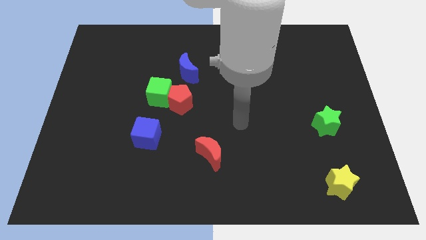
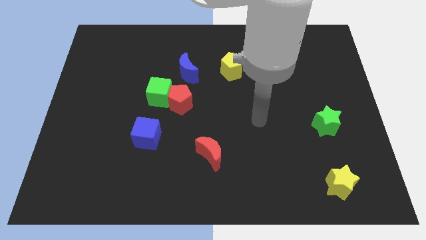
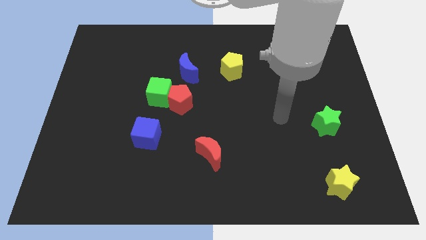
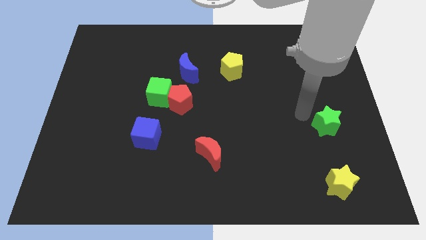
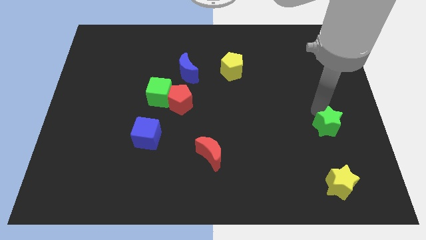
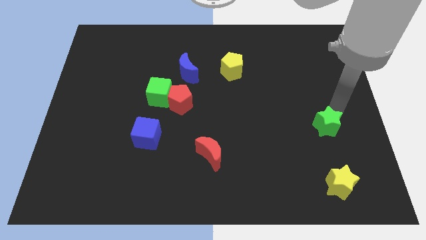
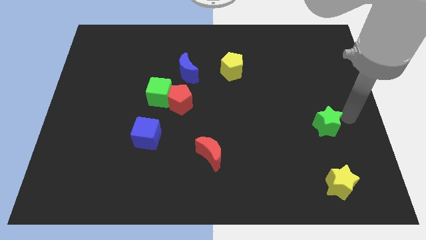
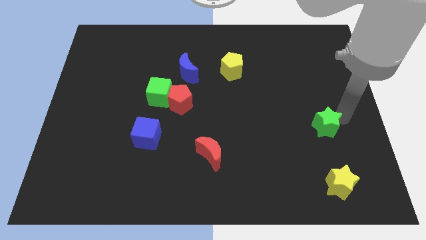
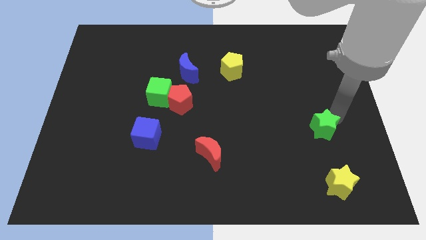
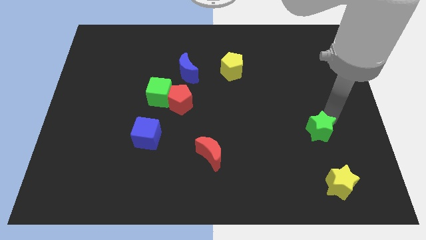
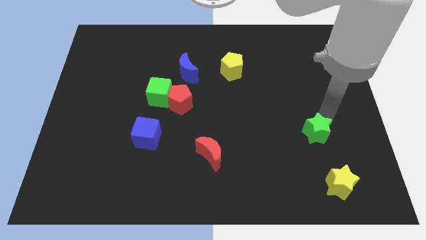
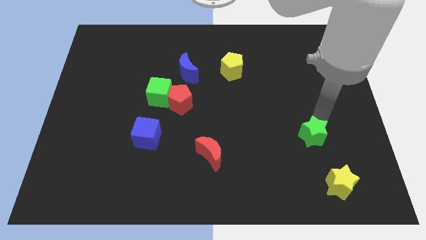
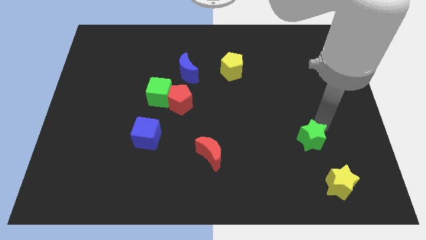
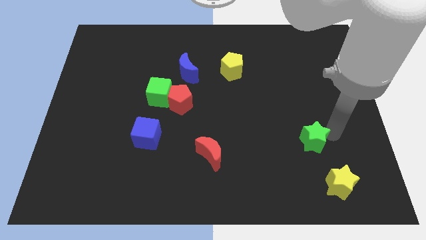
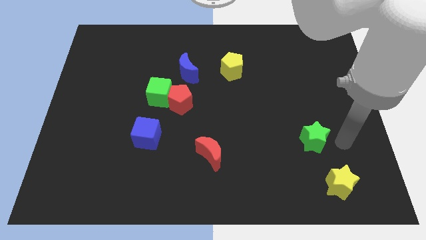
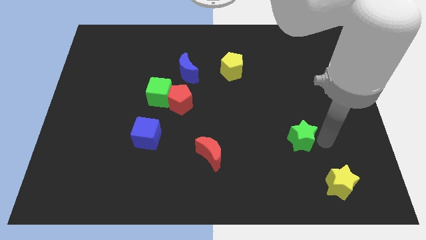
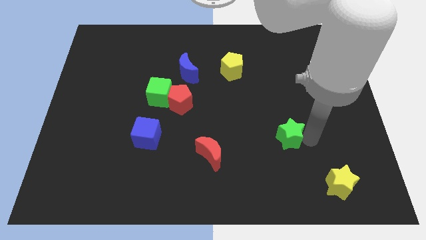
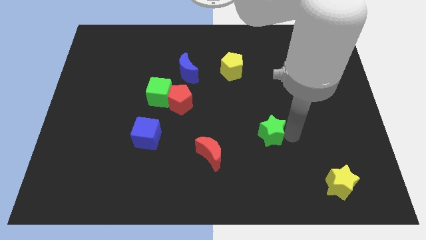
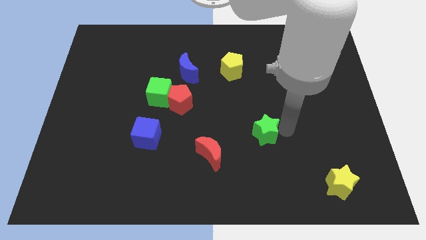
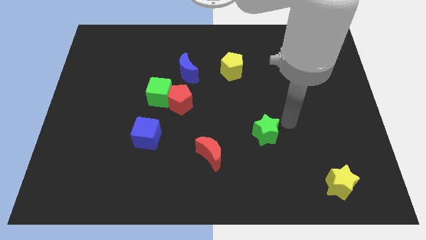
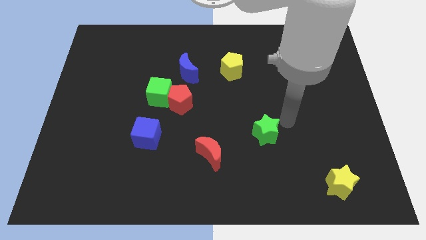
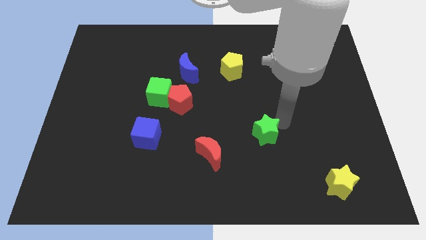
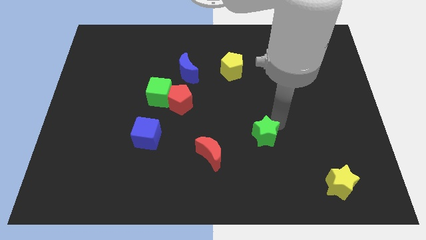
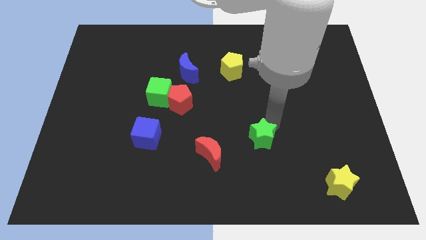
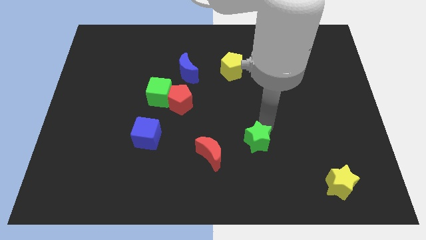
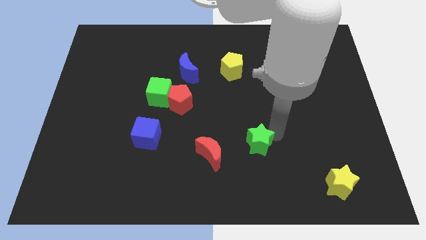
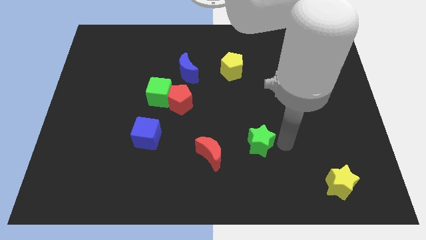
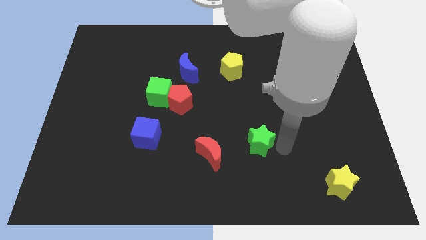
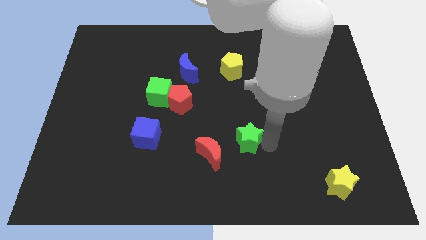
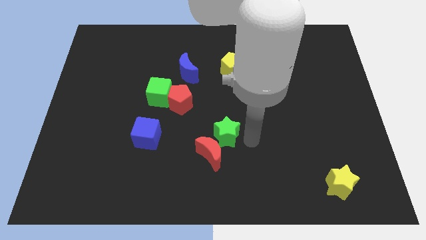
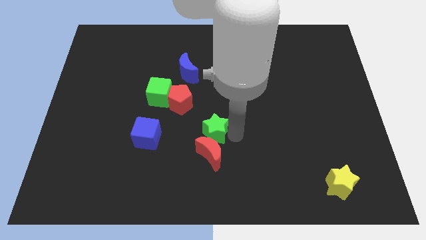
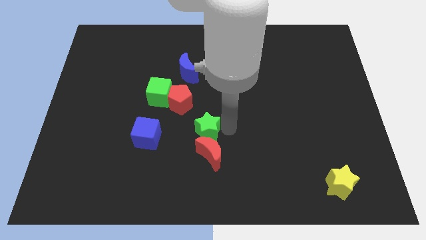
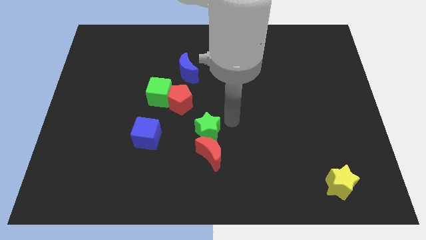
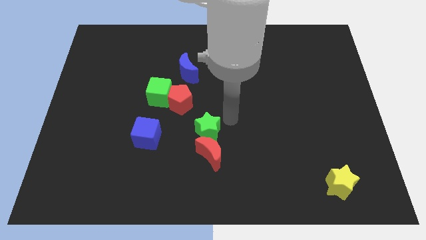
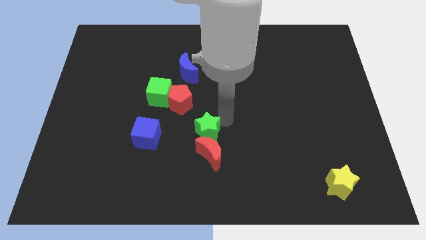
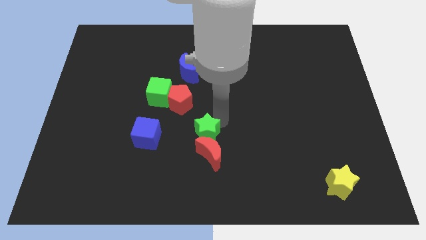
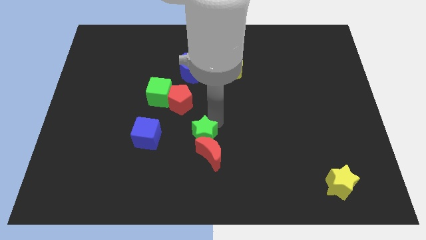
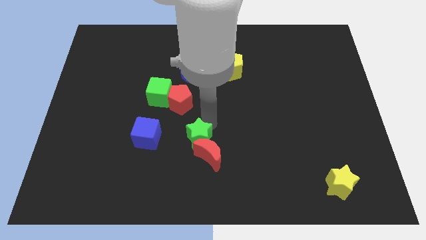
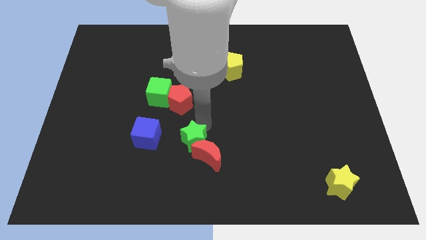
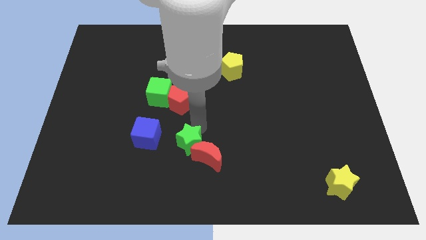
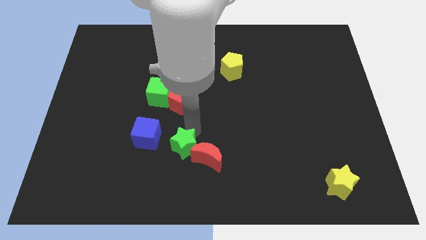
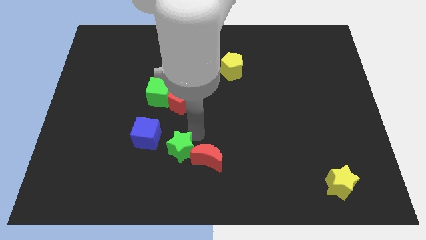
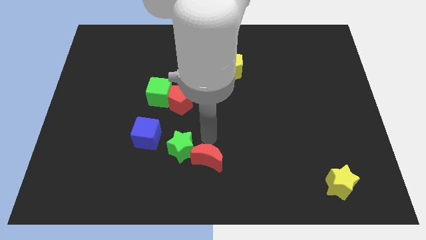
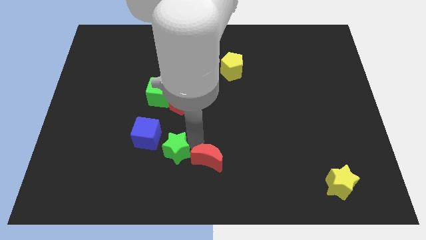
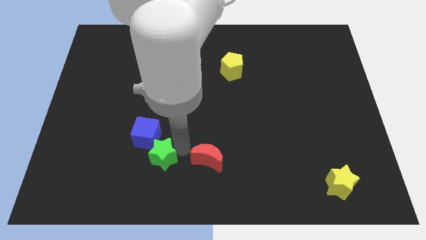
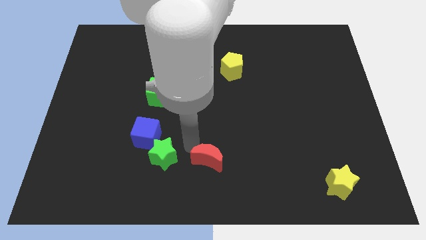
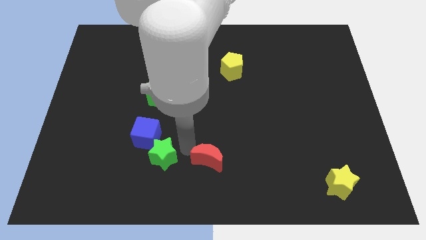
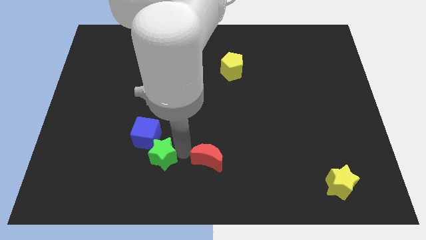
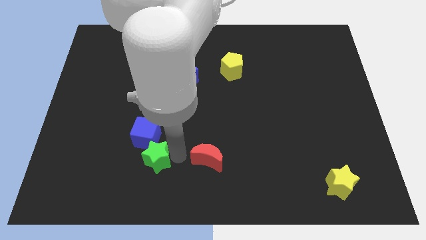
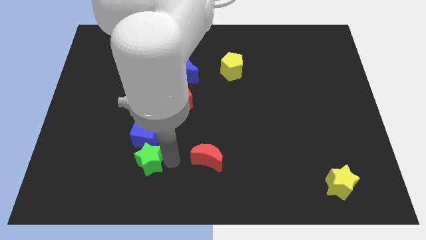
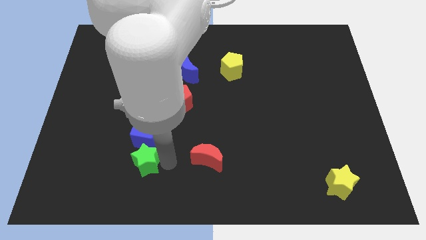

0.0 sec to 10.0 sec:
put the green star to the bottom left of the blue cube

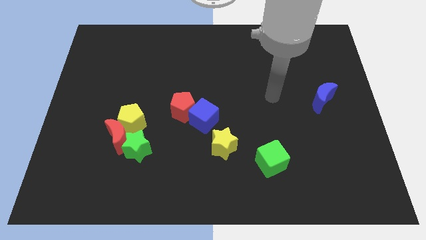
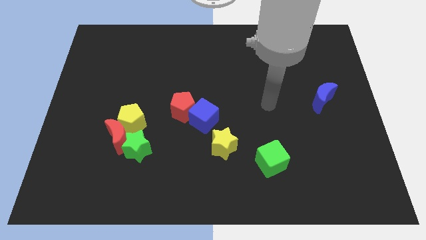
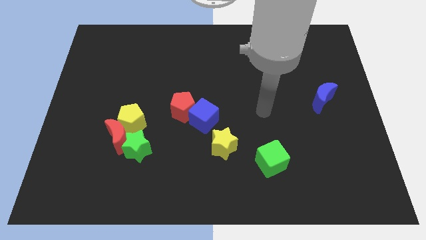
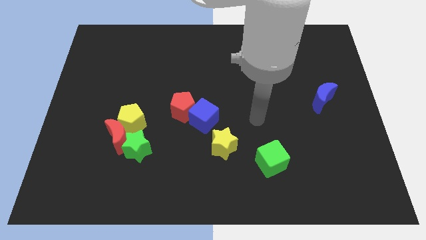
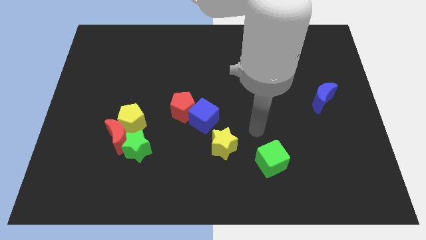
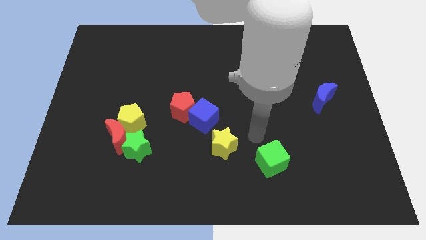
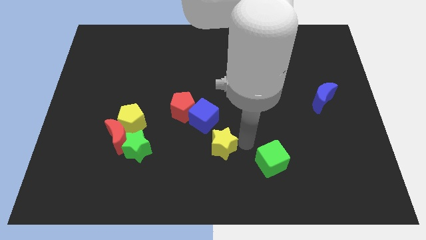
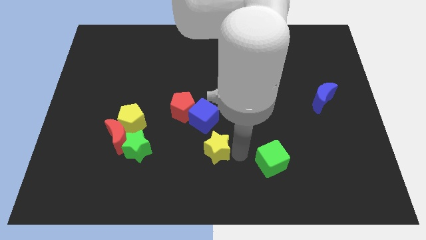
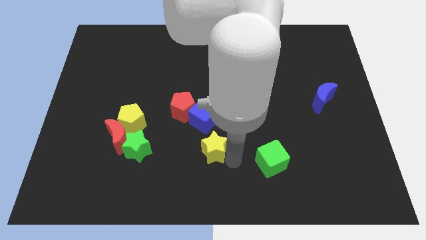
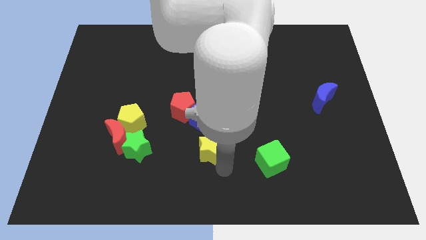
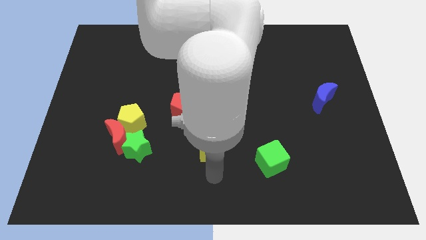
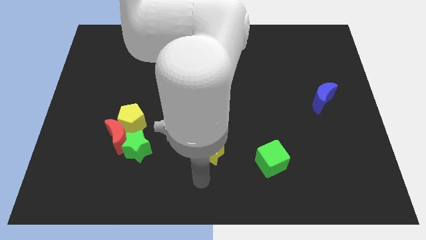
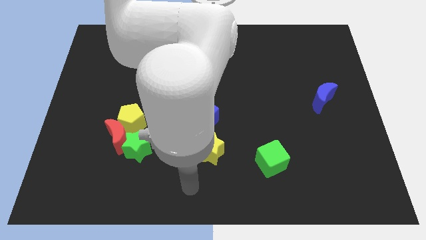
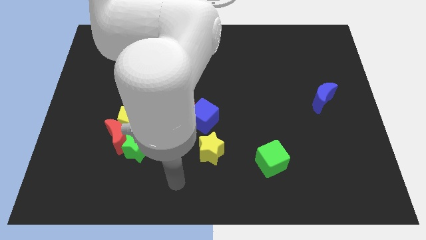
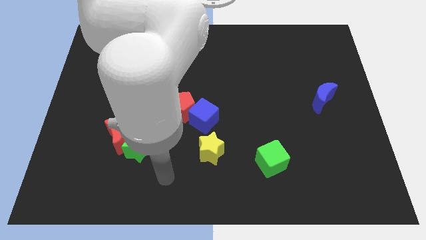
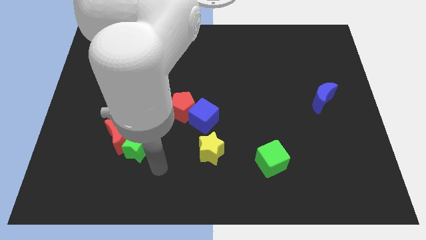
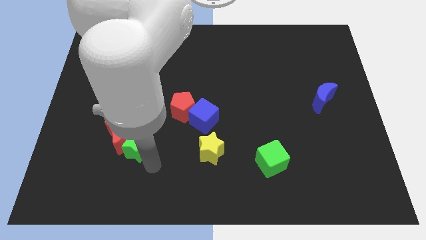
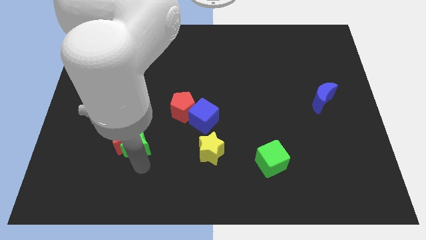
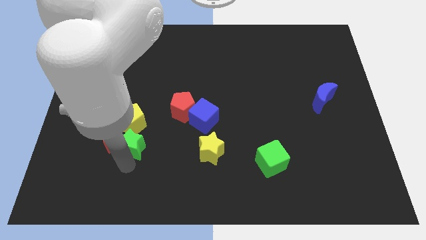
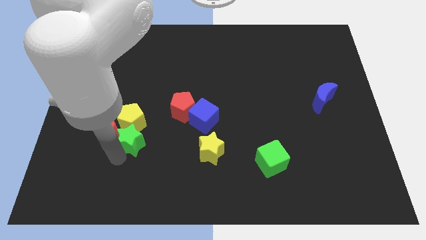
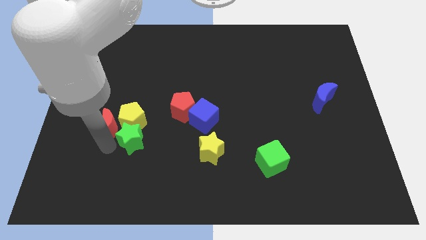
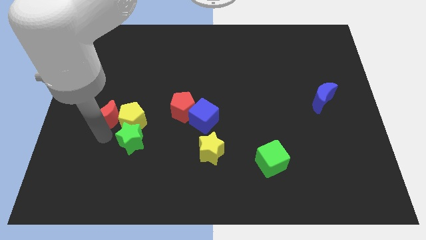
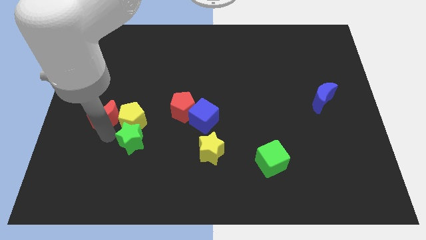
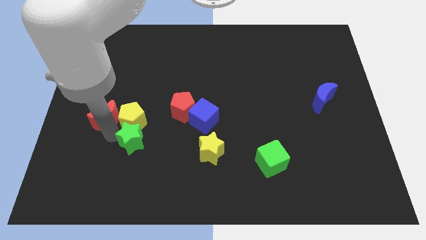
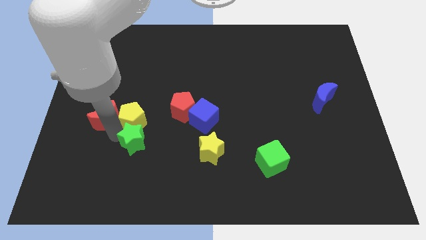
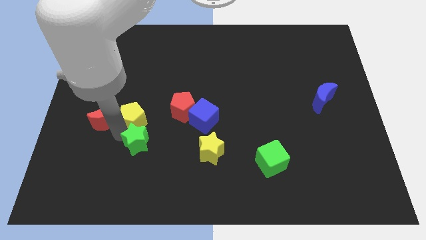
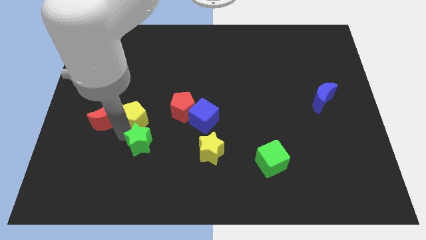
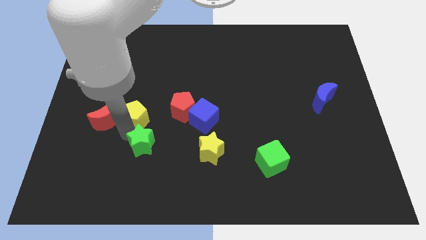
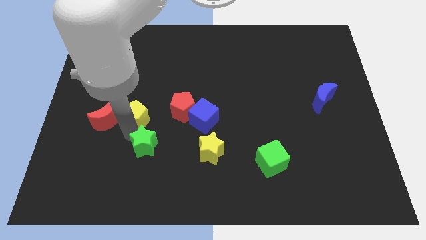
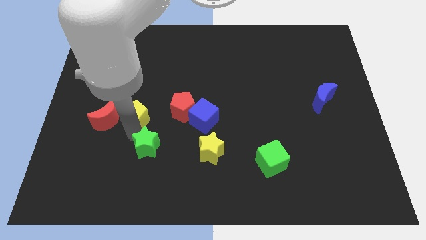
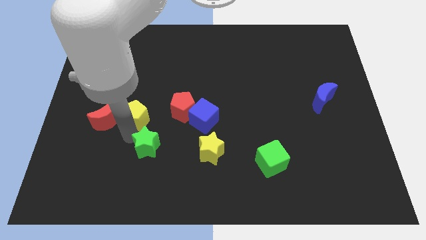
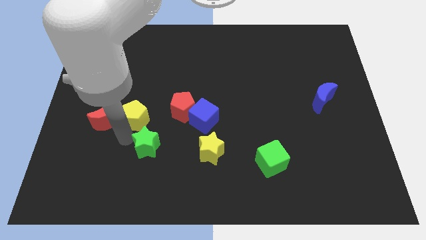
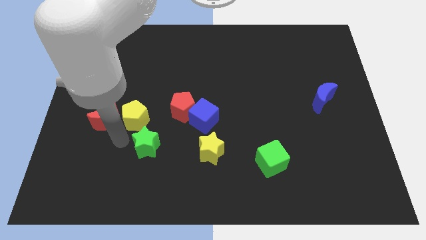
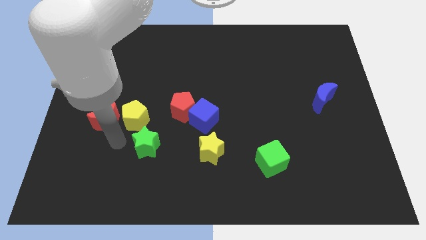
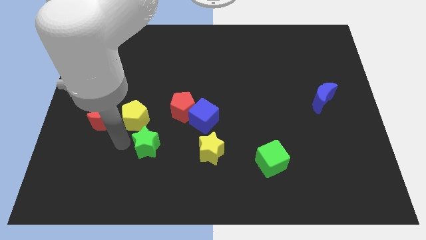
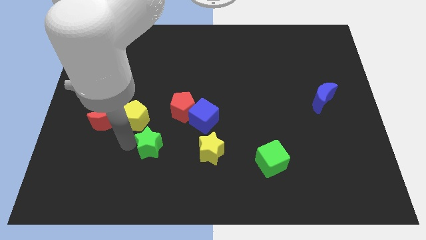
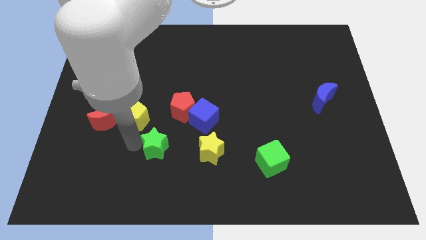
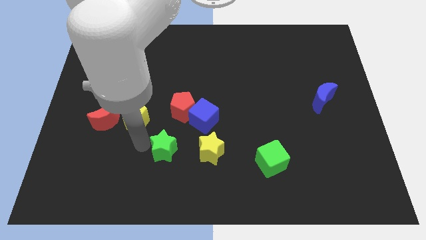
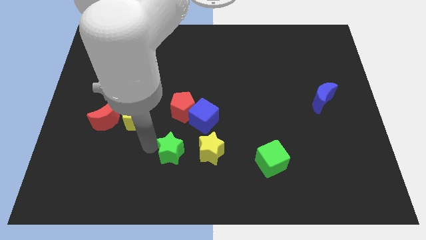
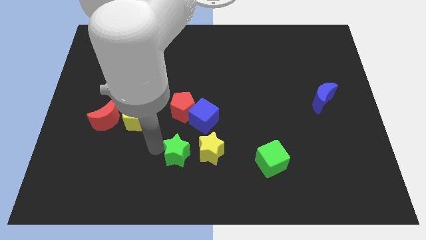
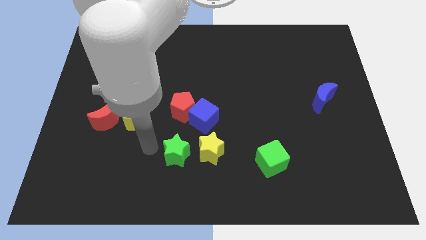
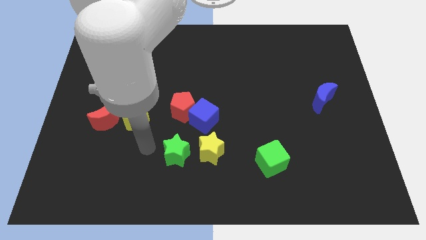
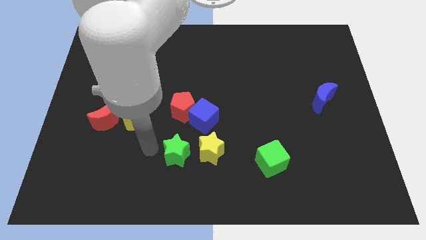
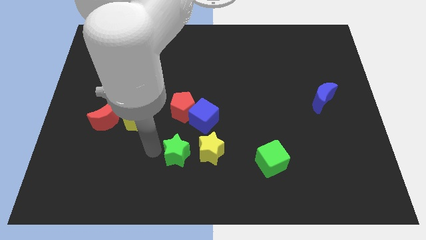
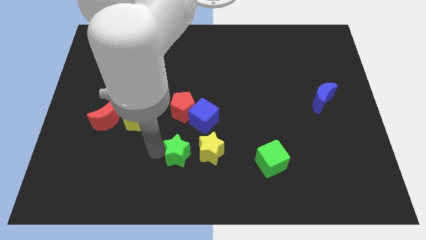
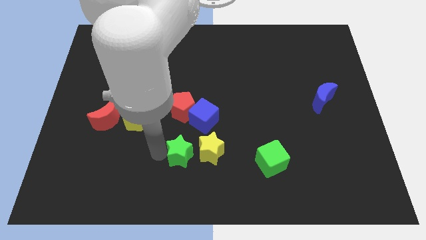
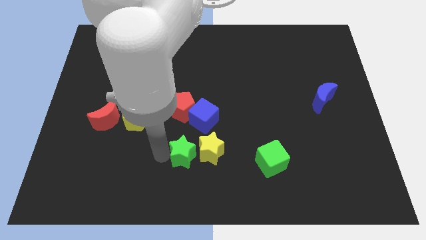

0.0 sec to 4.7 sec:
put the green star below the blue cube
